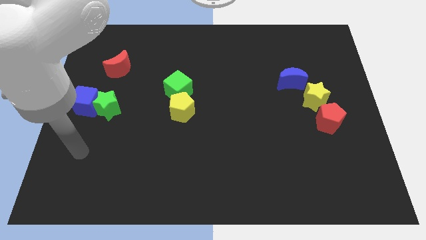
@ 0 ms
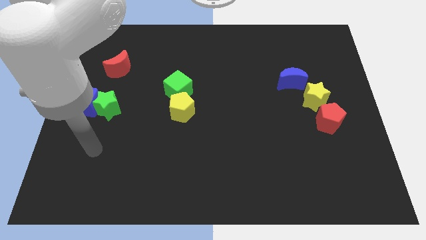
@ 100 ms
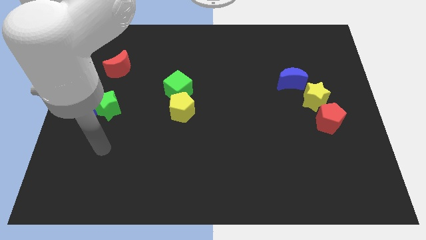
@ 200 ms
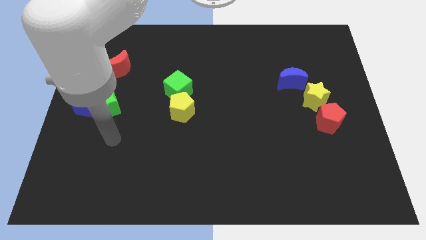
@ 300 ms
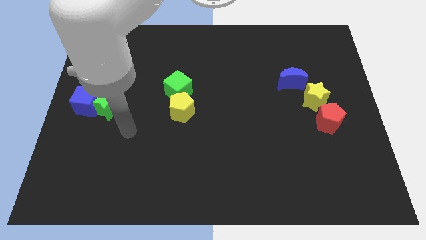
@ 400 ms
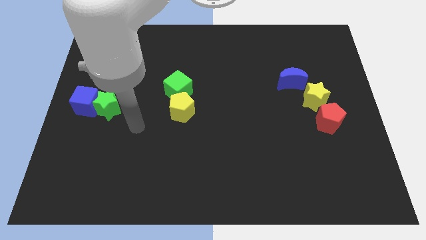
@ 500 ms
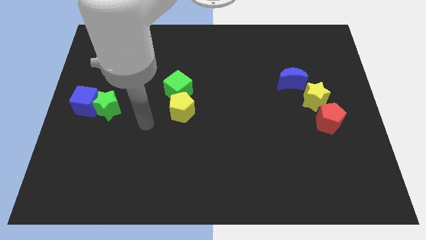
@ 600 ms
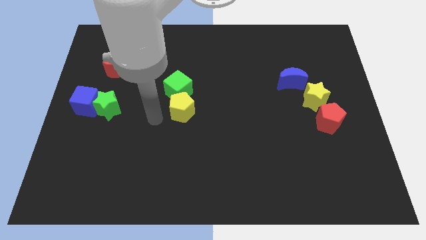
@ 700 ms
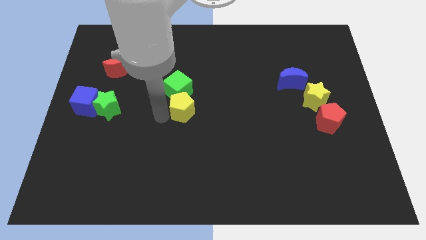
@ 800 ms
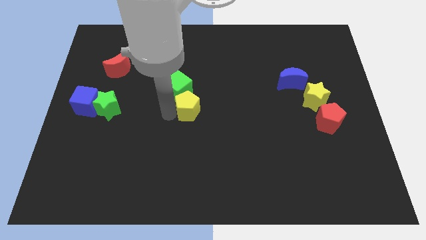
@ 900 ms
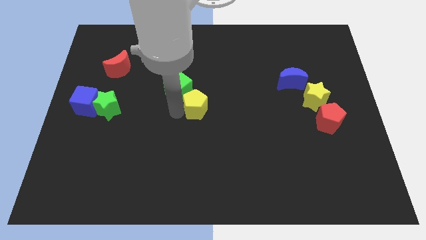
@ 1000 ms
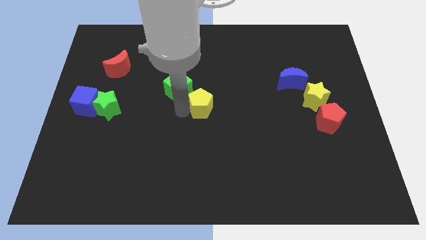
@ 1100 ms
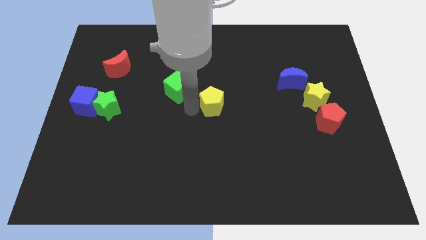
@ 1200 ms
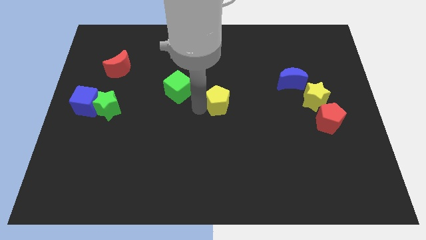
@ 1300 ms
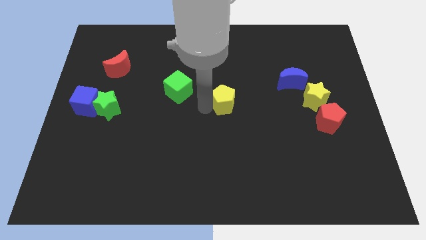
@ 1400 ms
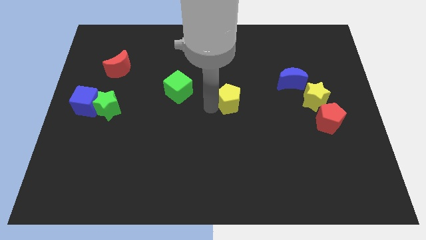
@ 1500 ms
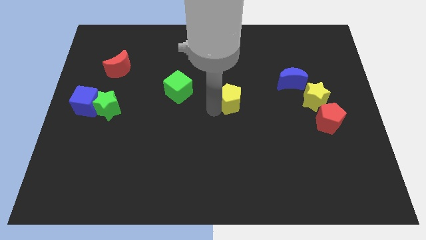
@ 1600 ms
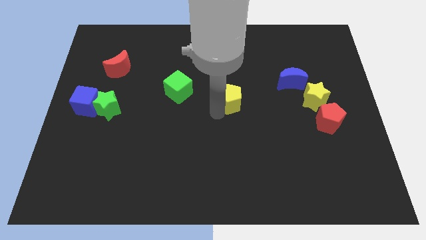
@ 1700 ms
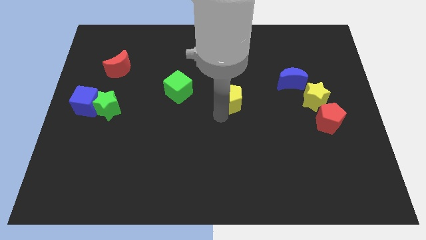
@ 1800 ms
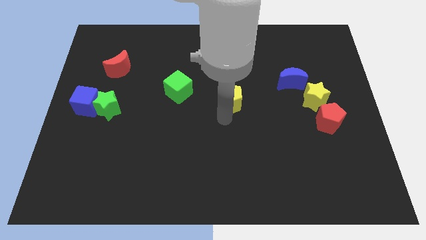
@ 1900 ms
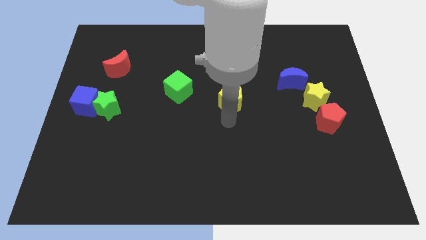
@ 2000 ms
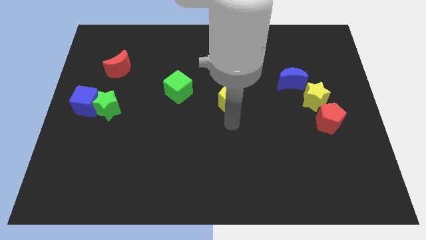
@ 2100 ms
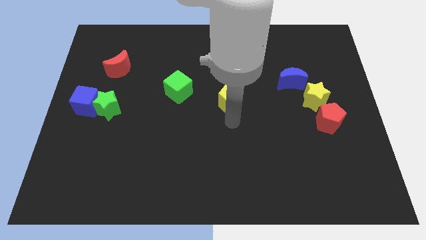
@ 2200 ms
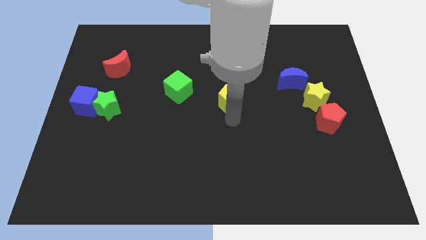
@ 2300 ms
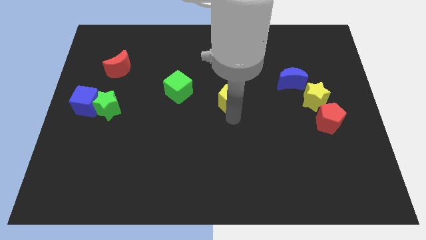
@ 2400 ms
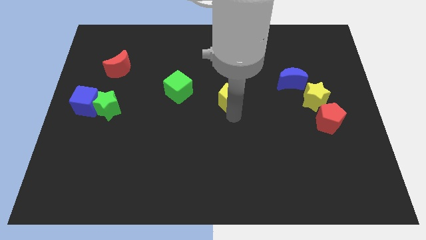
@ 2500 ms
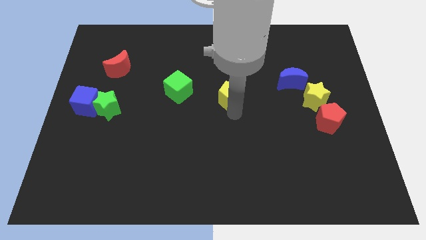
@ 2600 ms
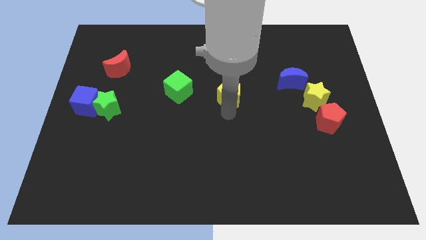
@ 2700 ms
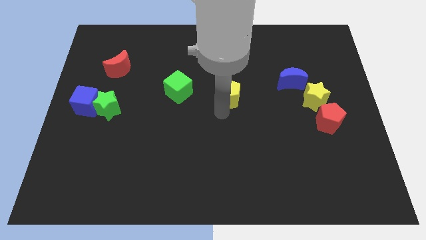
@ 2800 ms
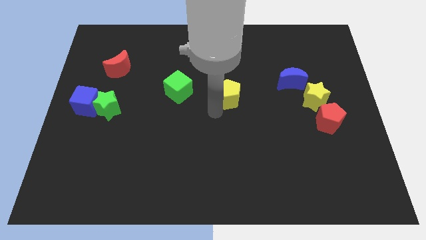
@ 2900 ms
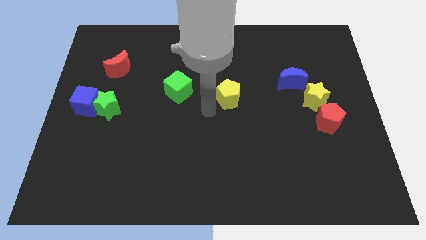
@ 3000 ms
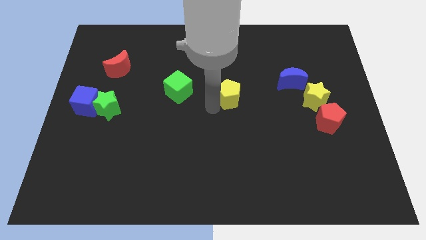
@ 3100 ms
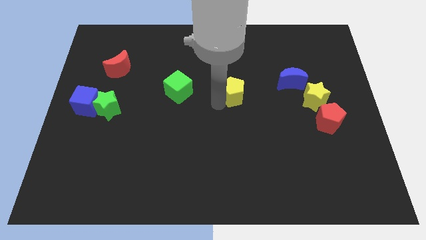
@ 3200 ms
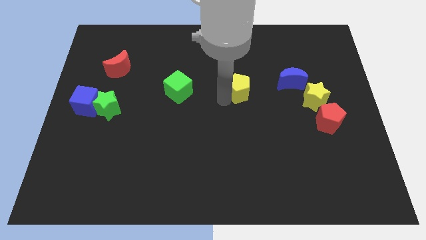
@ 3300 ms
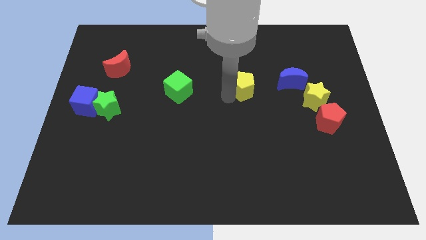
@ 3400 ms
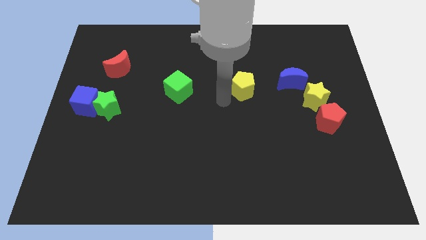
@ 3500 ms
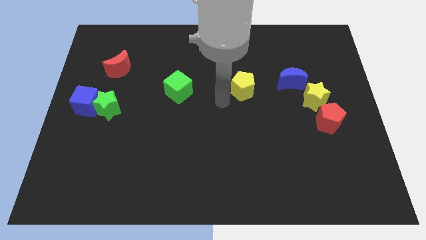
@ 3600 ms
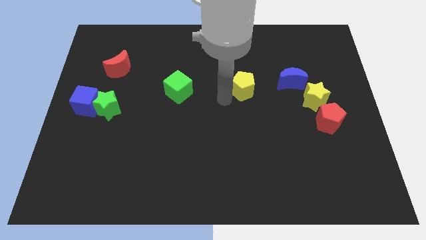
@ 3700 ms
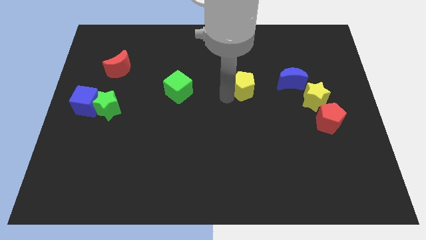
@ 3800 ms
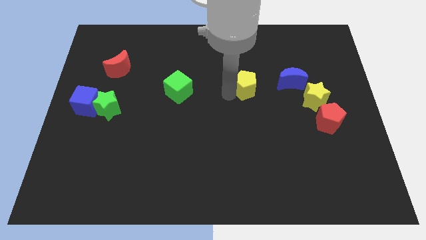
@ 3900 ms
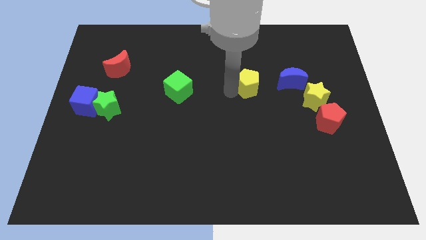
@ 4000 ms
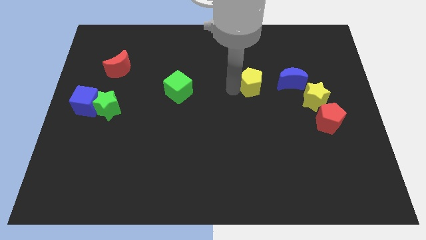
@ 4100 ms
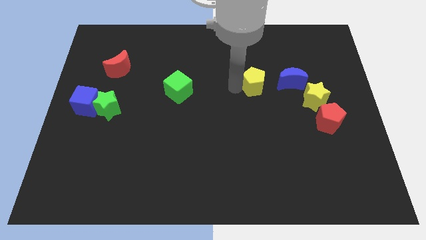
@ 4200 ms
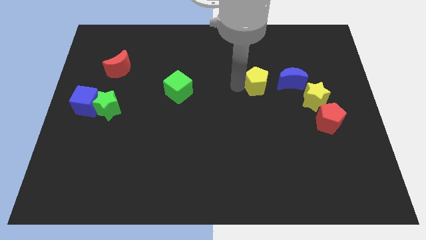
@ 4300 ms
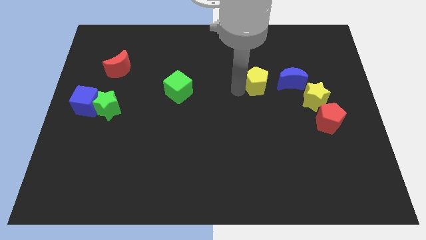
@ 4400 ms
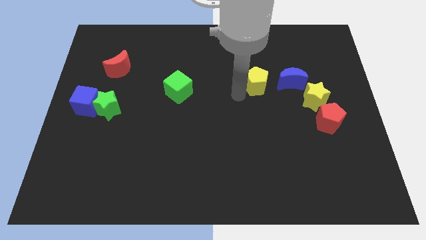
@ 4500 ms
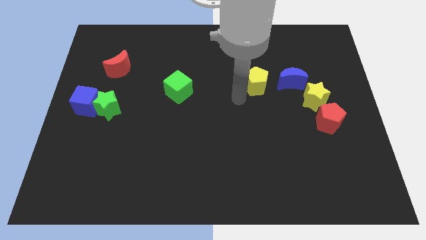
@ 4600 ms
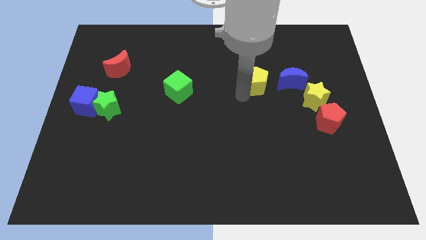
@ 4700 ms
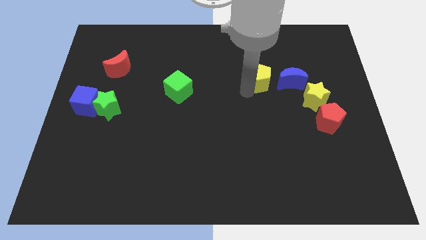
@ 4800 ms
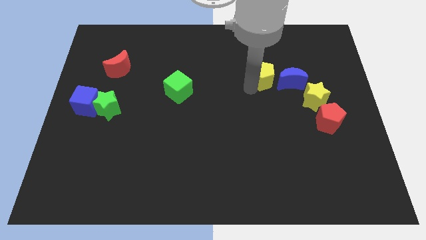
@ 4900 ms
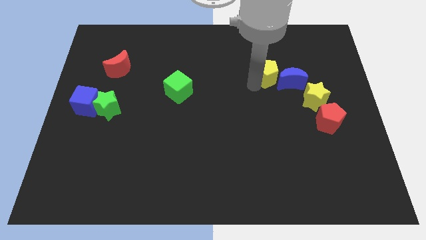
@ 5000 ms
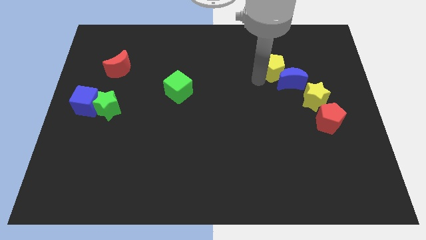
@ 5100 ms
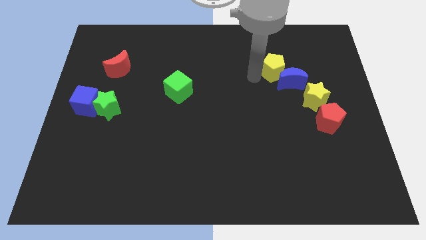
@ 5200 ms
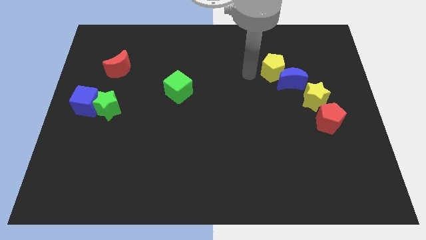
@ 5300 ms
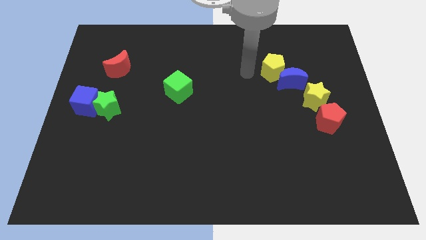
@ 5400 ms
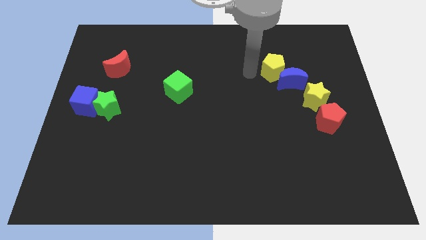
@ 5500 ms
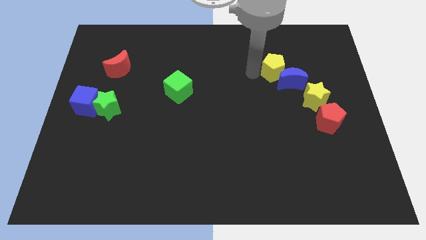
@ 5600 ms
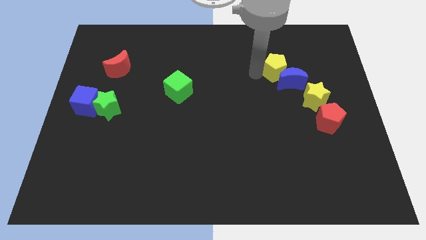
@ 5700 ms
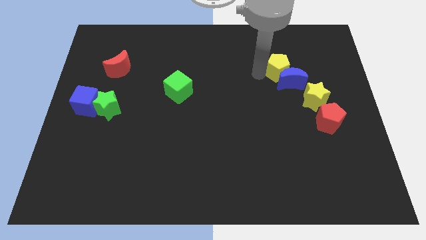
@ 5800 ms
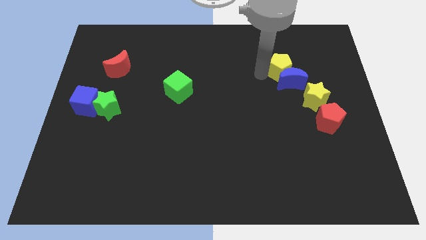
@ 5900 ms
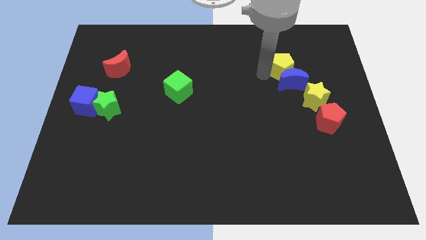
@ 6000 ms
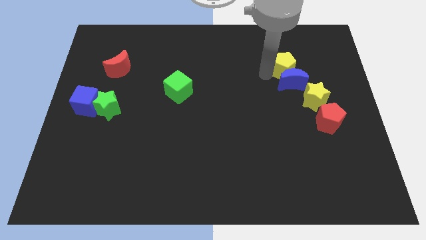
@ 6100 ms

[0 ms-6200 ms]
put the yellow pentagon to the top right of the blue moon

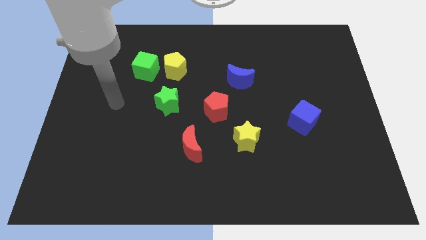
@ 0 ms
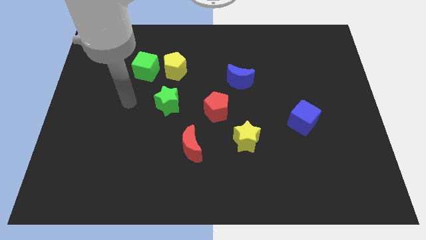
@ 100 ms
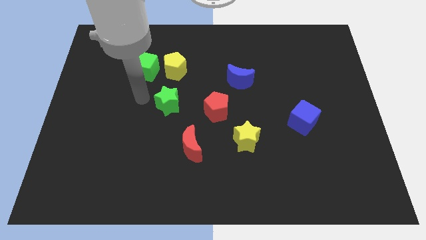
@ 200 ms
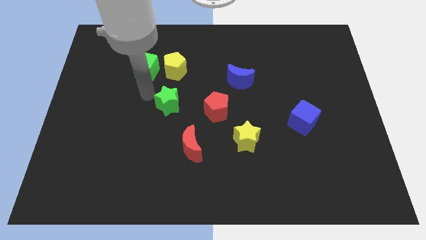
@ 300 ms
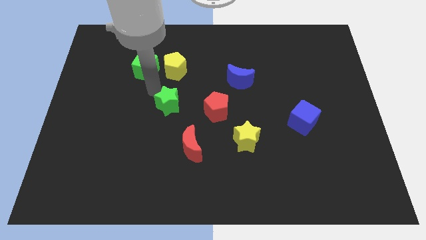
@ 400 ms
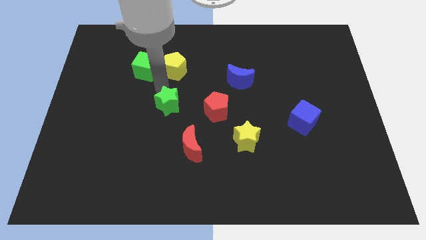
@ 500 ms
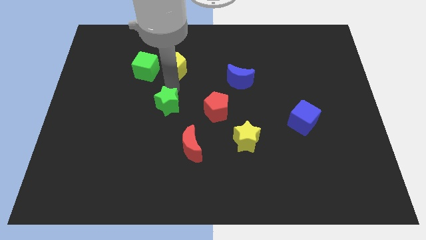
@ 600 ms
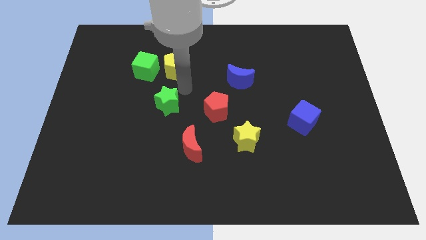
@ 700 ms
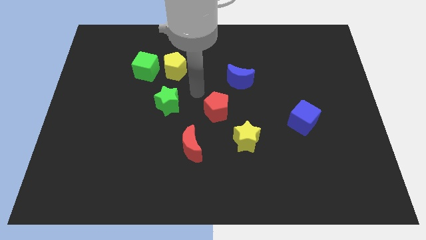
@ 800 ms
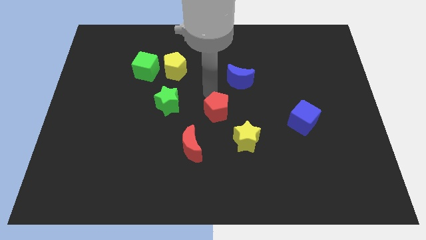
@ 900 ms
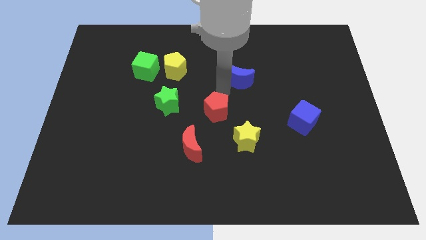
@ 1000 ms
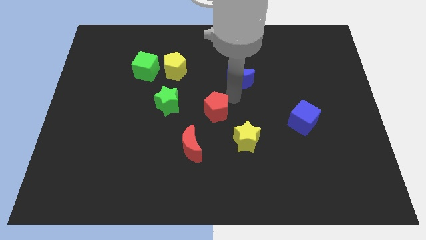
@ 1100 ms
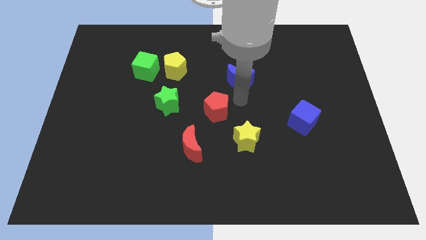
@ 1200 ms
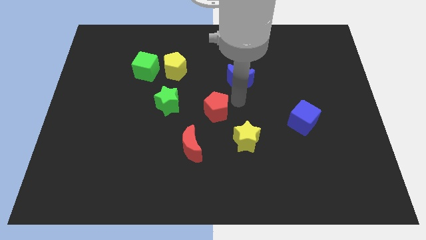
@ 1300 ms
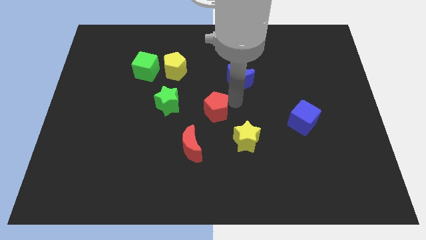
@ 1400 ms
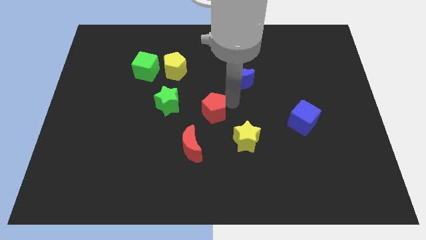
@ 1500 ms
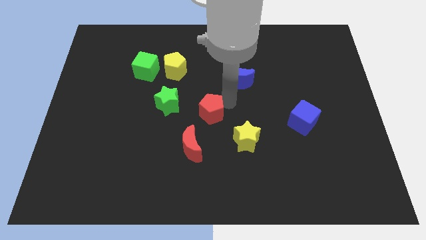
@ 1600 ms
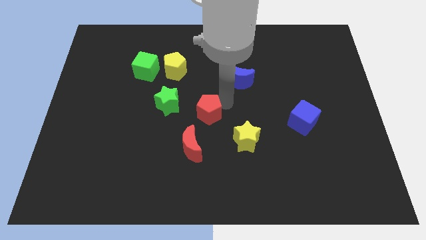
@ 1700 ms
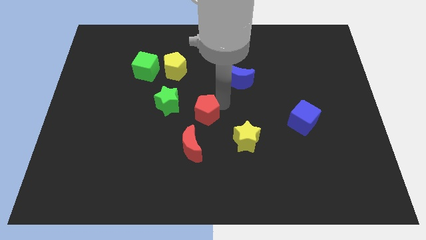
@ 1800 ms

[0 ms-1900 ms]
put the red pentagon diagonally down and to the right of the green star
